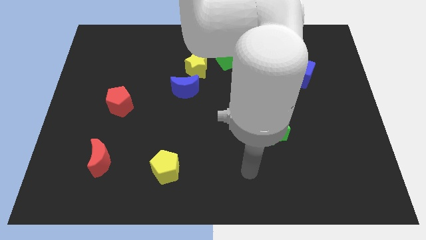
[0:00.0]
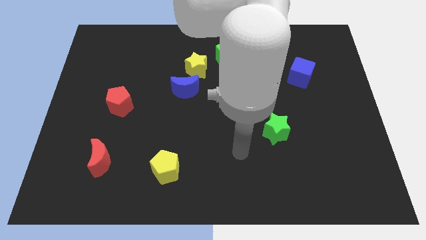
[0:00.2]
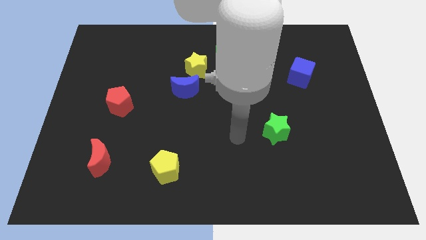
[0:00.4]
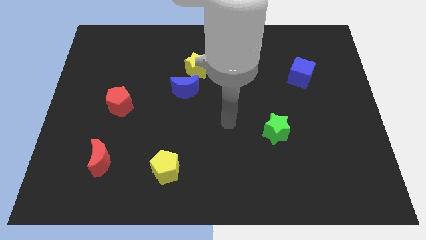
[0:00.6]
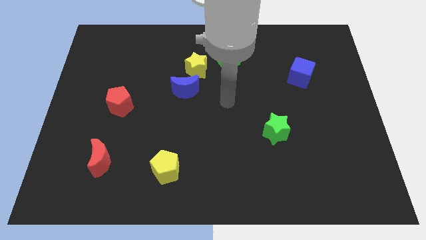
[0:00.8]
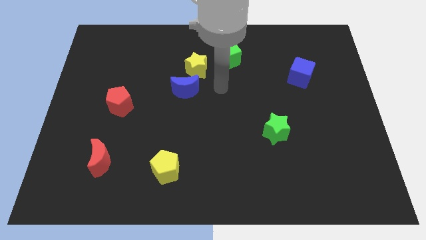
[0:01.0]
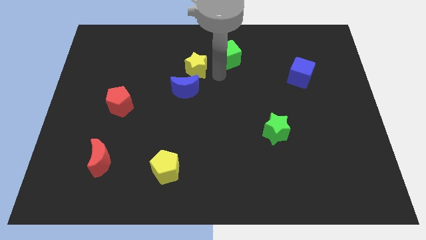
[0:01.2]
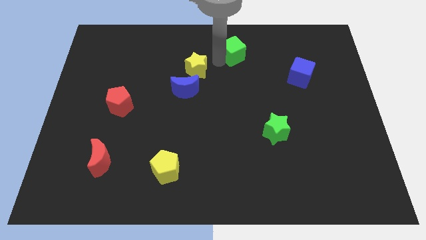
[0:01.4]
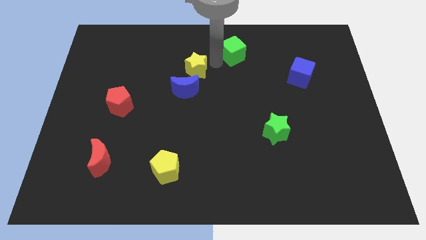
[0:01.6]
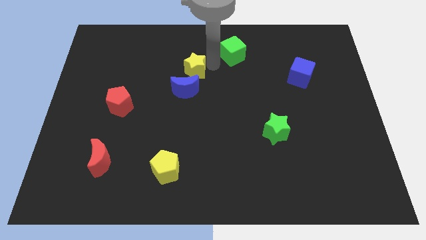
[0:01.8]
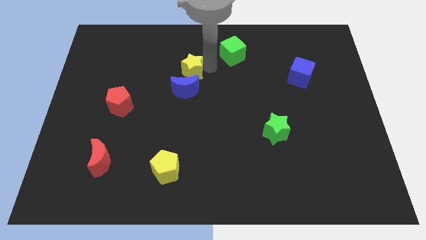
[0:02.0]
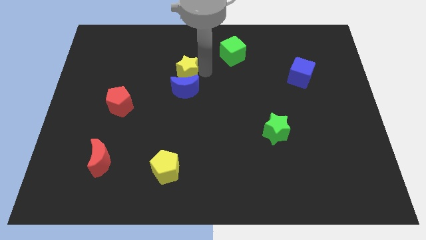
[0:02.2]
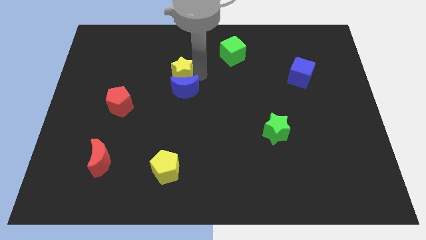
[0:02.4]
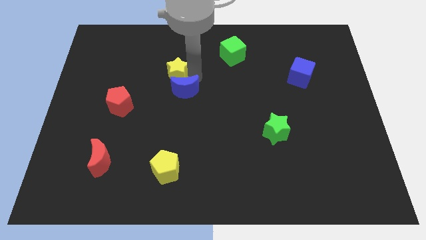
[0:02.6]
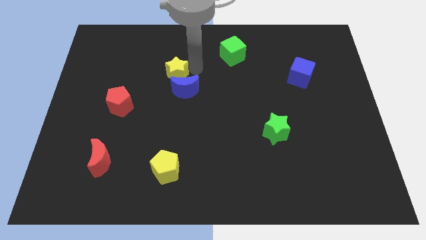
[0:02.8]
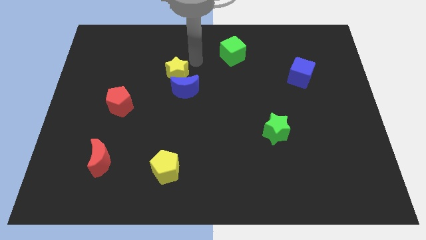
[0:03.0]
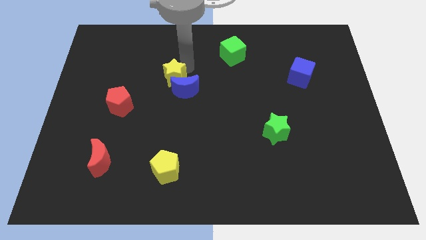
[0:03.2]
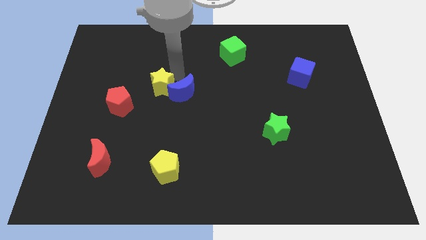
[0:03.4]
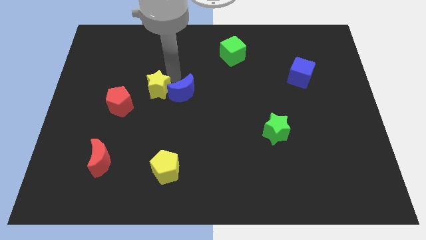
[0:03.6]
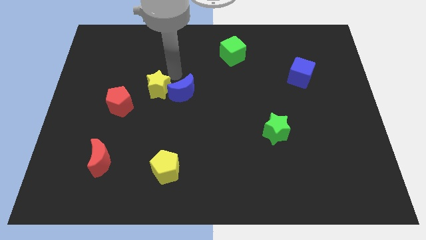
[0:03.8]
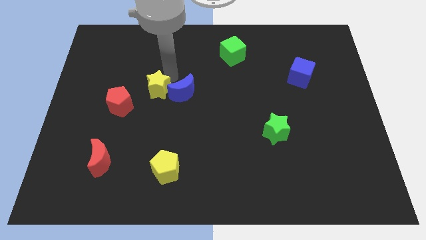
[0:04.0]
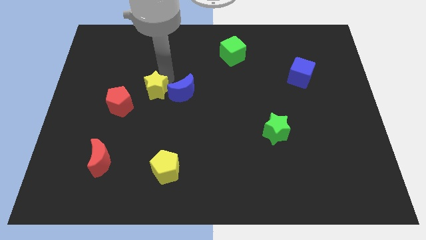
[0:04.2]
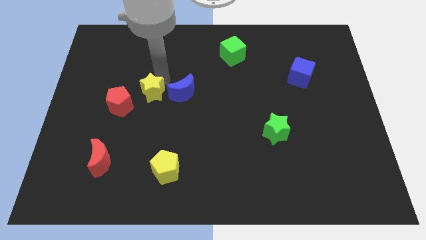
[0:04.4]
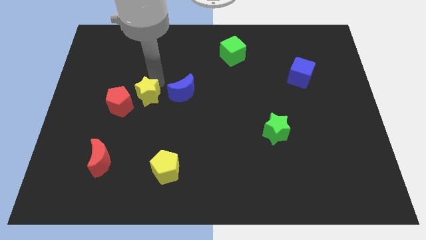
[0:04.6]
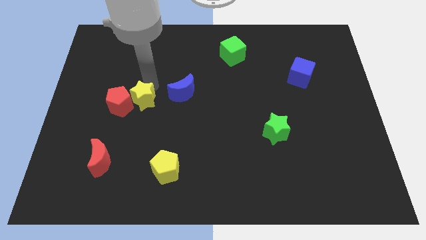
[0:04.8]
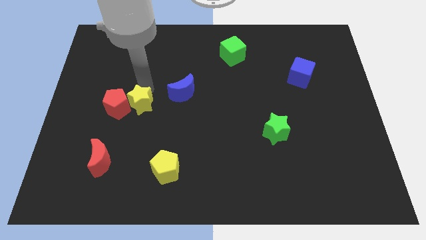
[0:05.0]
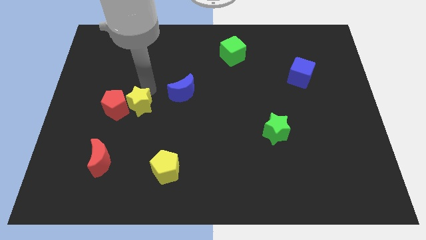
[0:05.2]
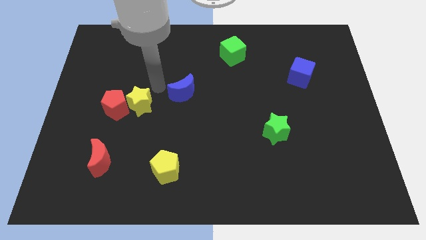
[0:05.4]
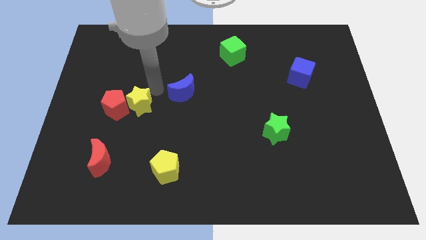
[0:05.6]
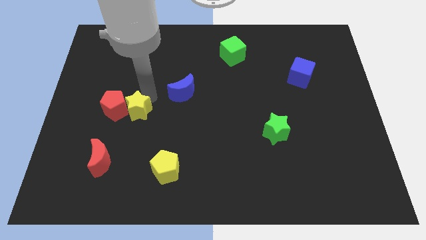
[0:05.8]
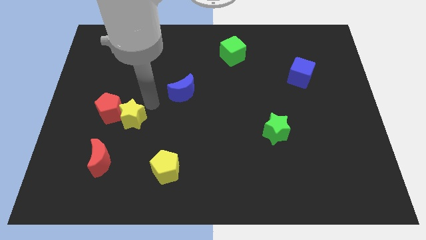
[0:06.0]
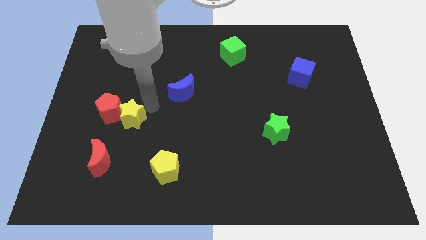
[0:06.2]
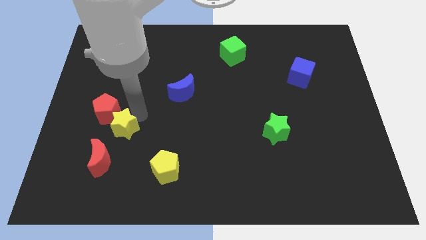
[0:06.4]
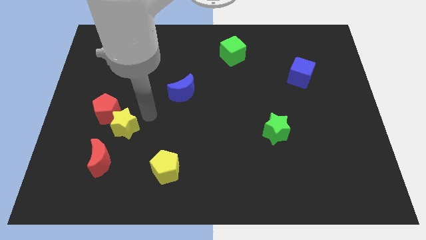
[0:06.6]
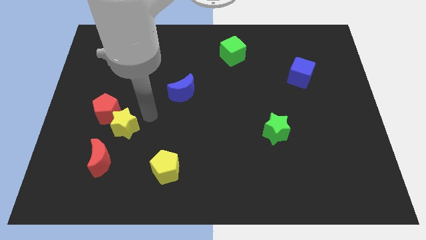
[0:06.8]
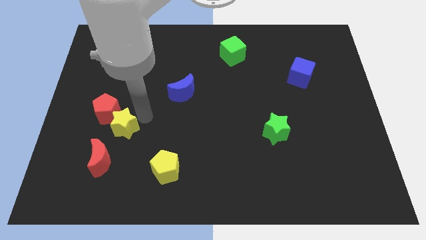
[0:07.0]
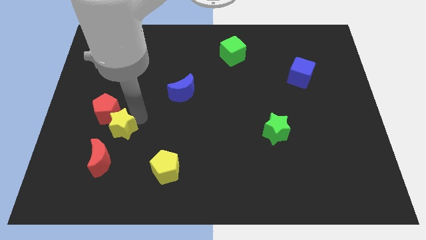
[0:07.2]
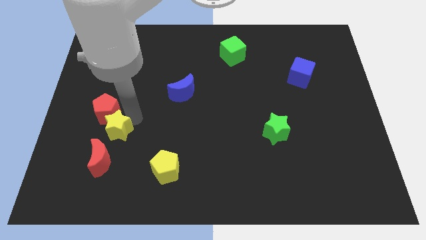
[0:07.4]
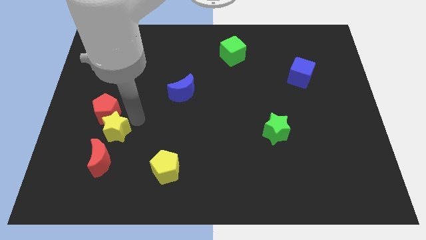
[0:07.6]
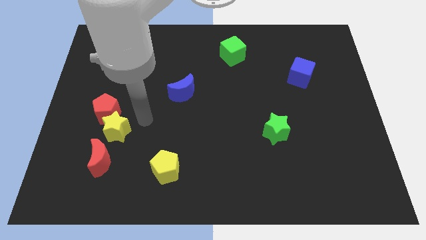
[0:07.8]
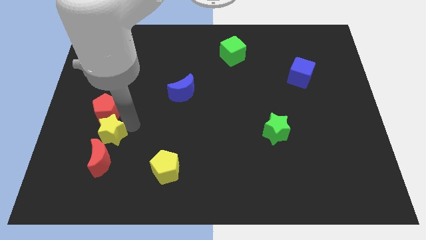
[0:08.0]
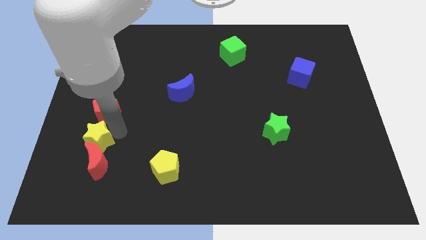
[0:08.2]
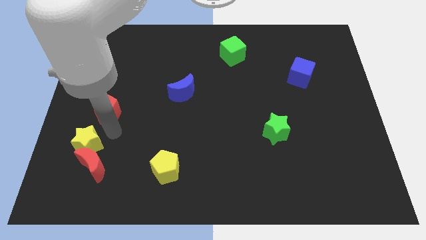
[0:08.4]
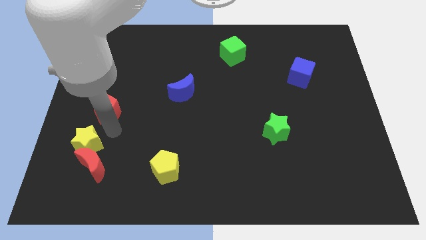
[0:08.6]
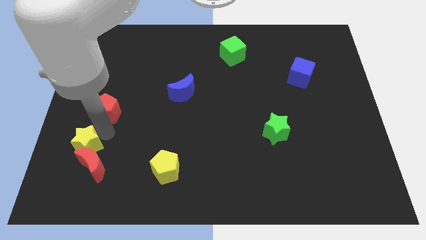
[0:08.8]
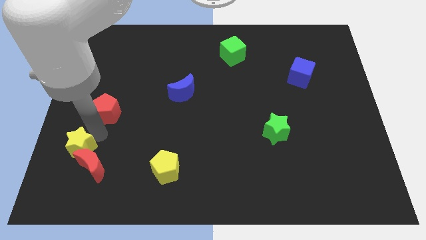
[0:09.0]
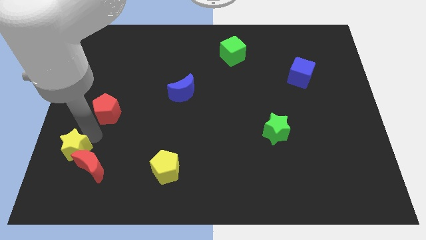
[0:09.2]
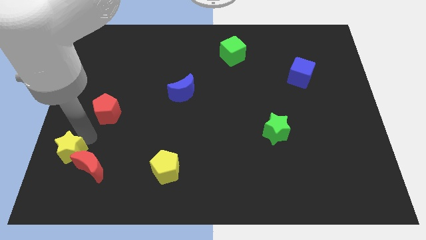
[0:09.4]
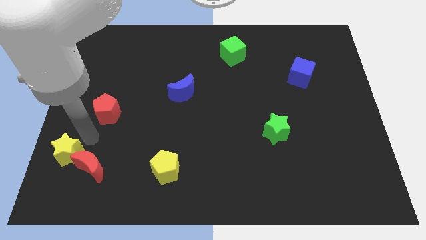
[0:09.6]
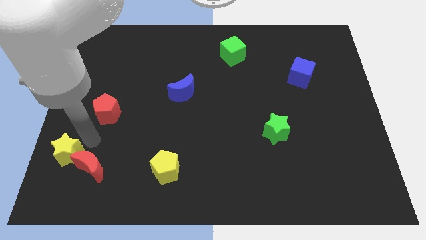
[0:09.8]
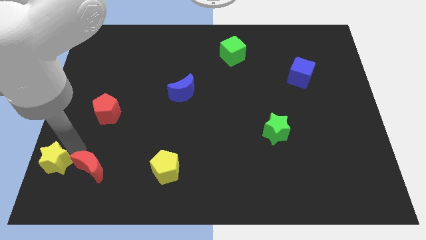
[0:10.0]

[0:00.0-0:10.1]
push the yellow star to the bottom left
